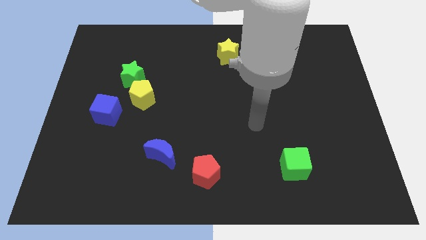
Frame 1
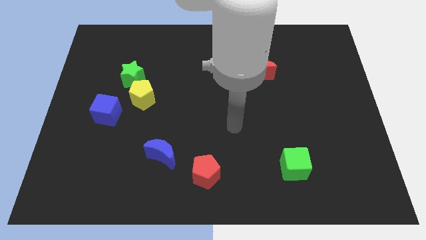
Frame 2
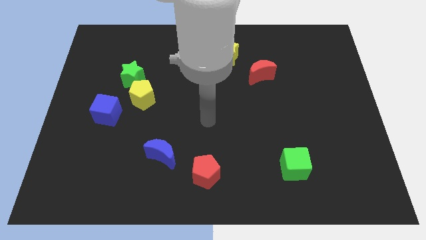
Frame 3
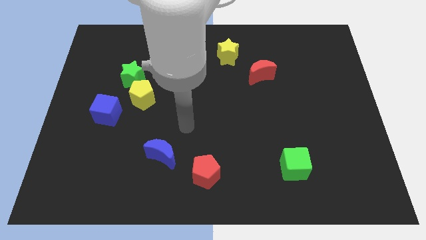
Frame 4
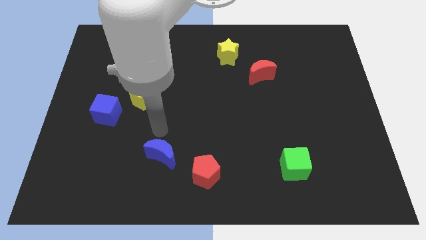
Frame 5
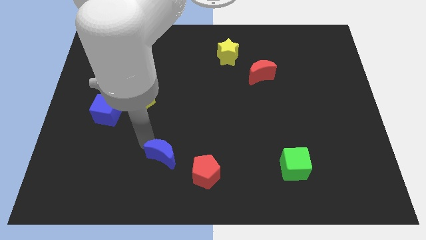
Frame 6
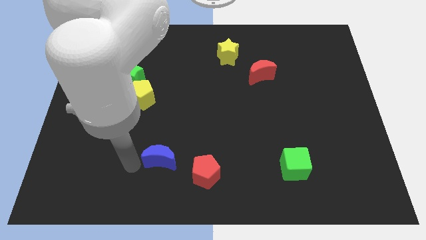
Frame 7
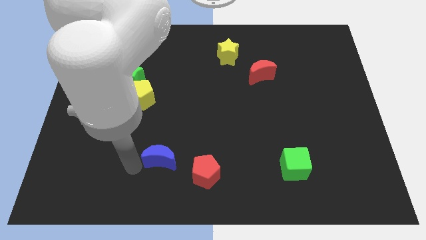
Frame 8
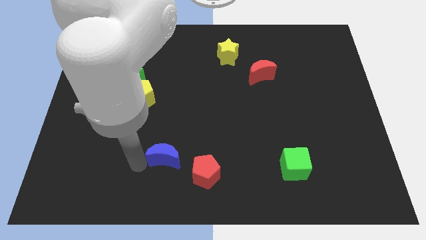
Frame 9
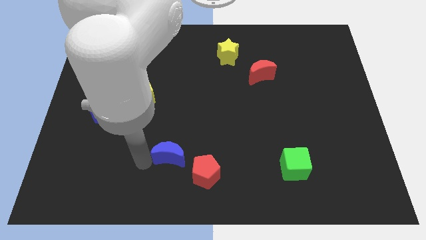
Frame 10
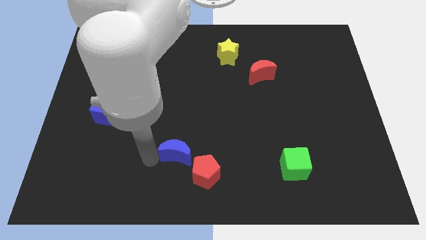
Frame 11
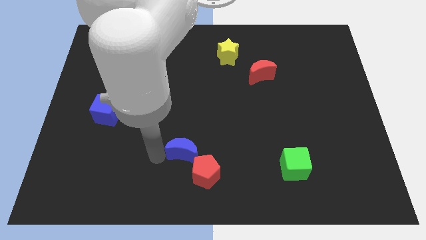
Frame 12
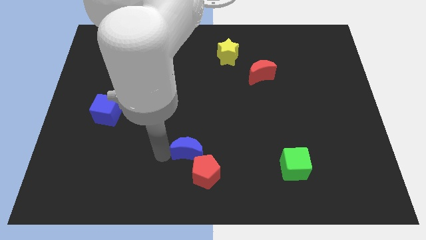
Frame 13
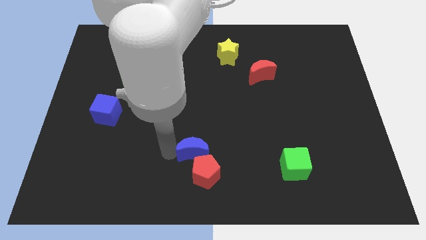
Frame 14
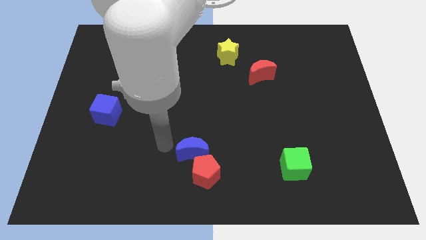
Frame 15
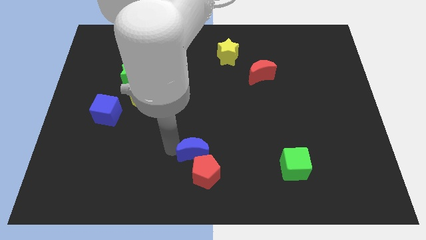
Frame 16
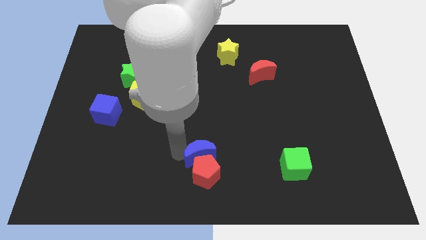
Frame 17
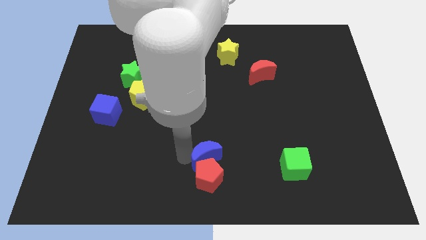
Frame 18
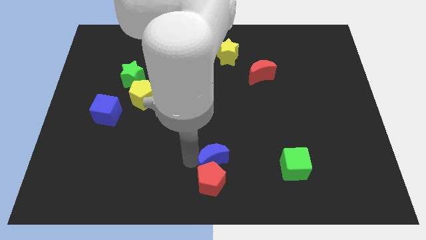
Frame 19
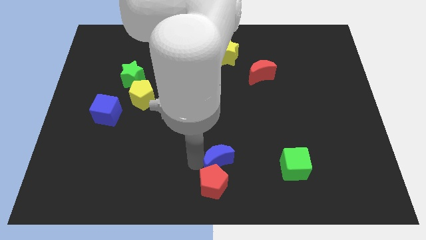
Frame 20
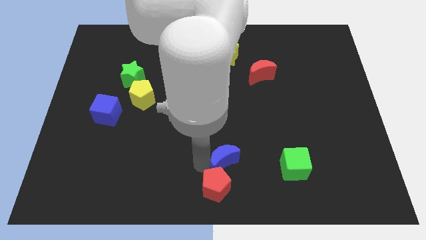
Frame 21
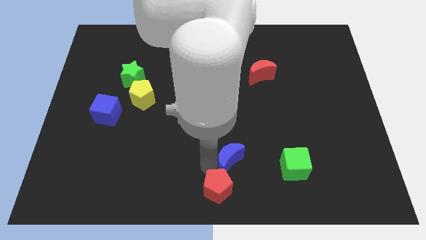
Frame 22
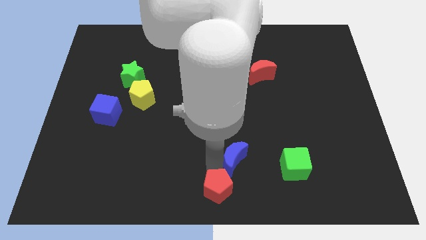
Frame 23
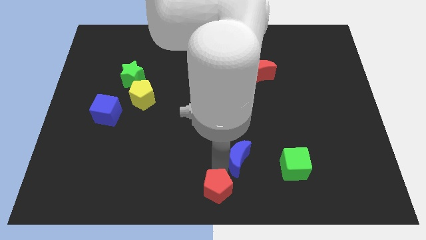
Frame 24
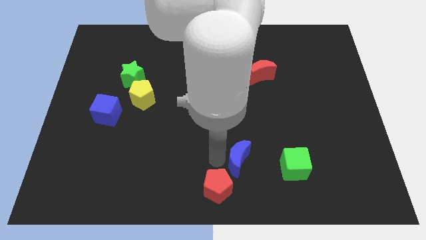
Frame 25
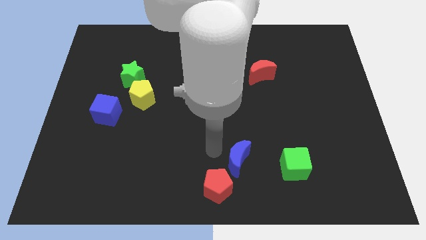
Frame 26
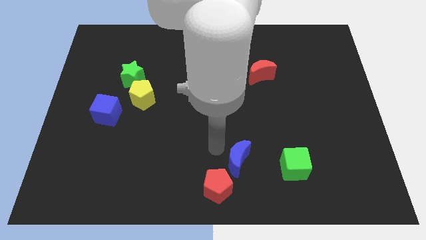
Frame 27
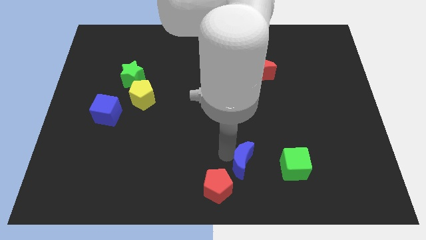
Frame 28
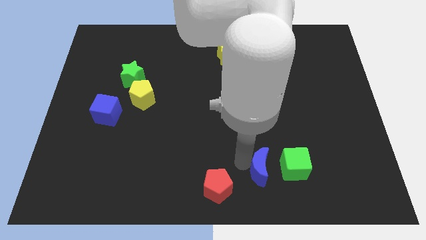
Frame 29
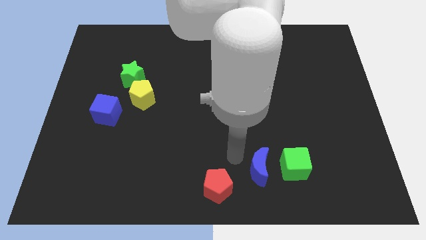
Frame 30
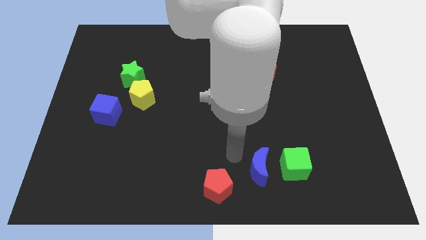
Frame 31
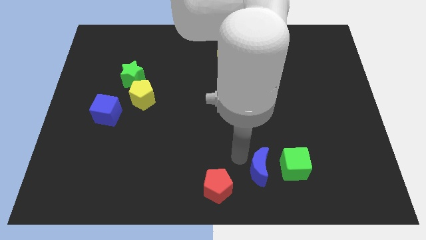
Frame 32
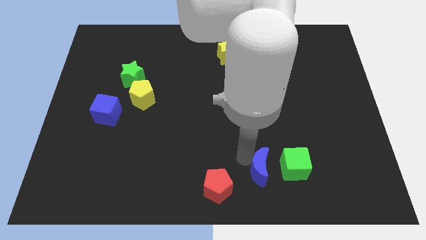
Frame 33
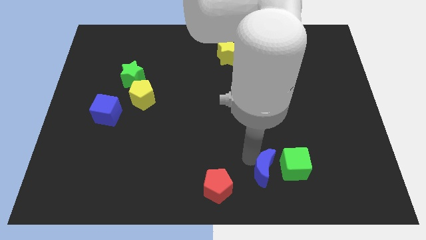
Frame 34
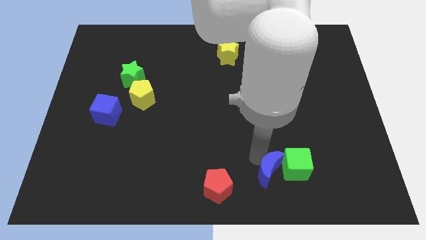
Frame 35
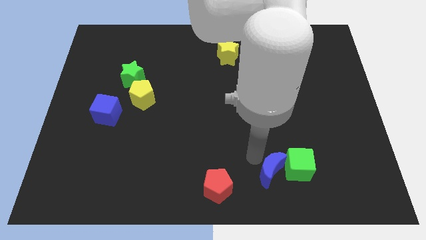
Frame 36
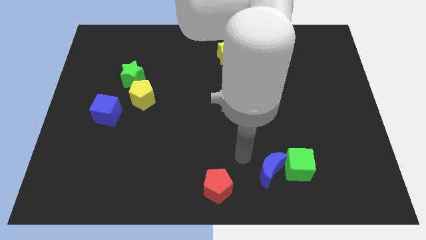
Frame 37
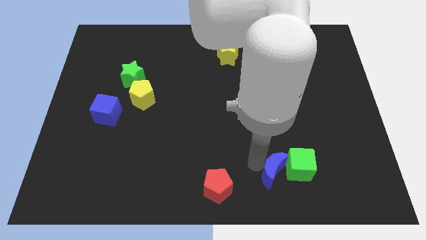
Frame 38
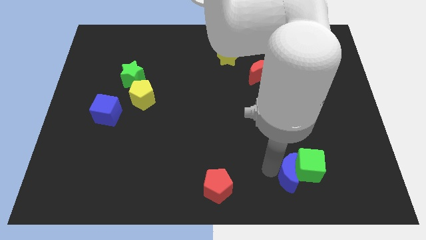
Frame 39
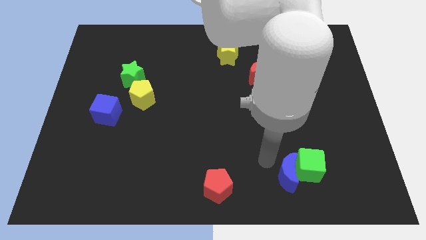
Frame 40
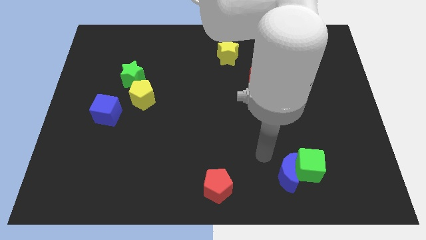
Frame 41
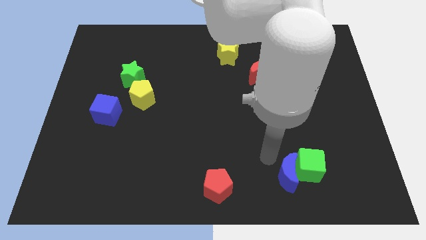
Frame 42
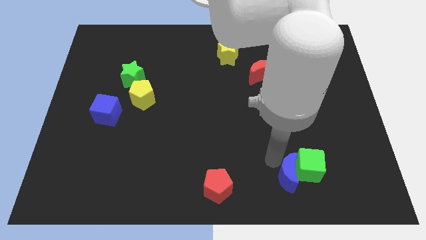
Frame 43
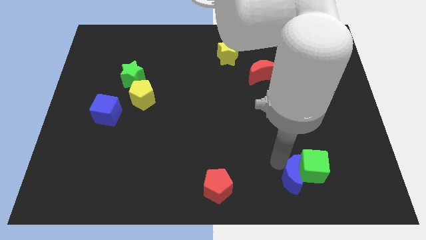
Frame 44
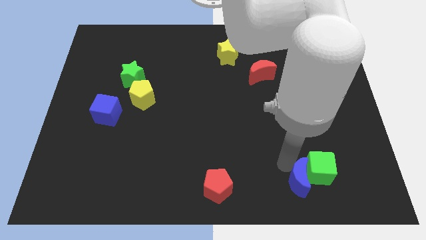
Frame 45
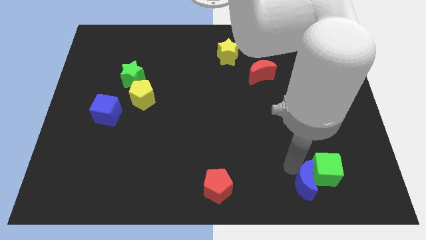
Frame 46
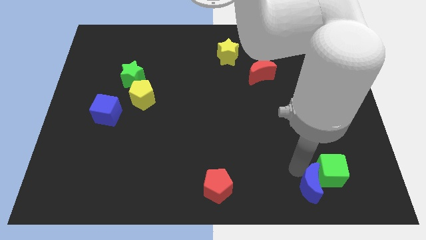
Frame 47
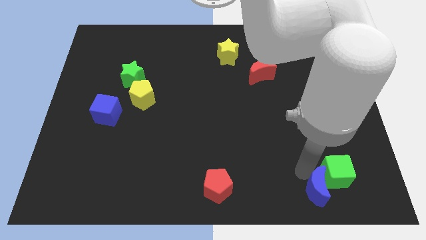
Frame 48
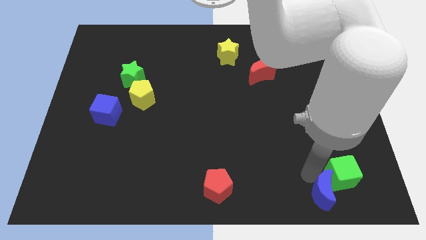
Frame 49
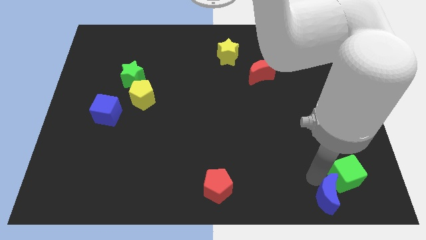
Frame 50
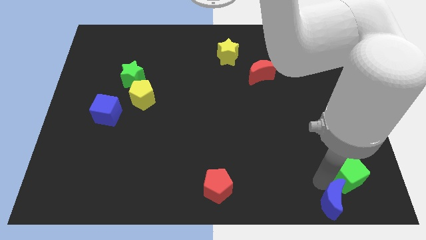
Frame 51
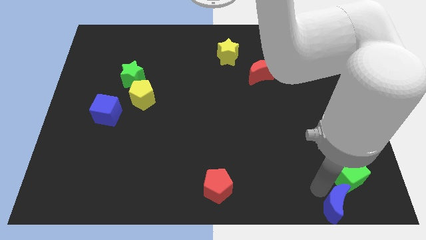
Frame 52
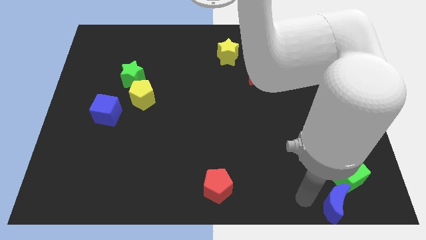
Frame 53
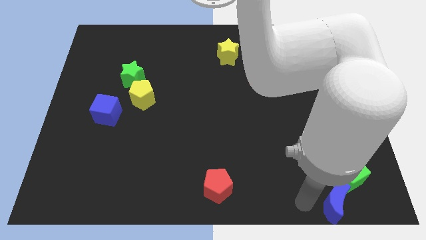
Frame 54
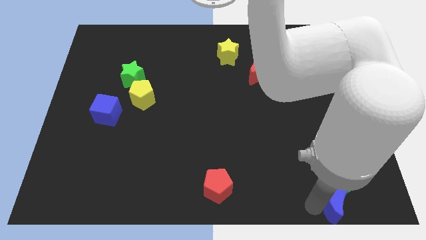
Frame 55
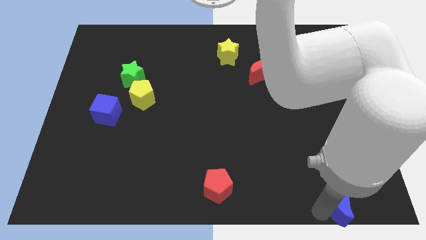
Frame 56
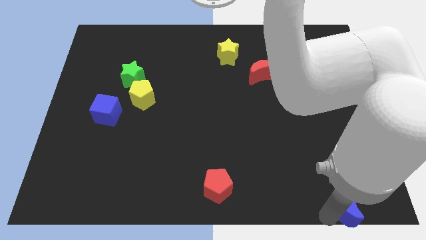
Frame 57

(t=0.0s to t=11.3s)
push the blue moon to the bottom right

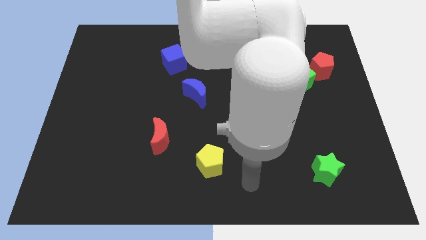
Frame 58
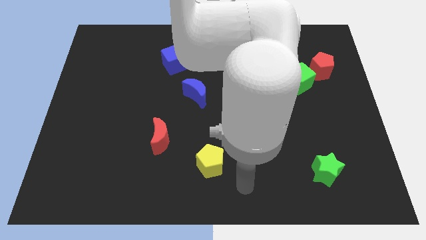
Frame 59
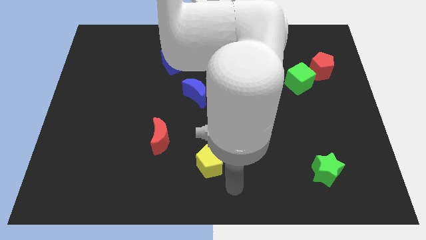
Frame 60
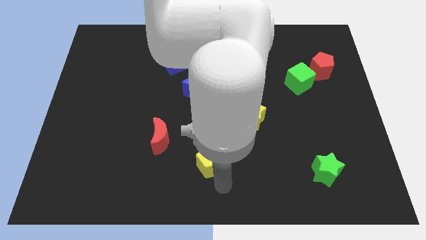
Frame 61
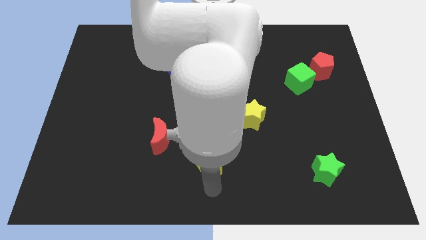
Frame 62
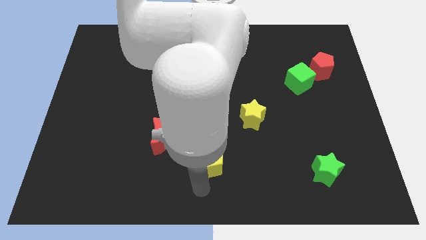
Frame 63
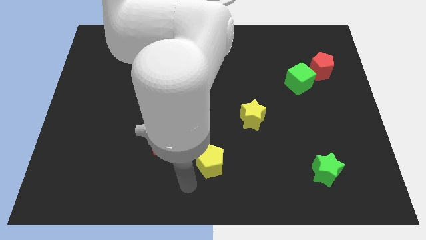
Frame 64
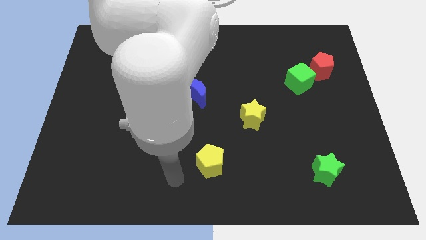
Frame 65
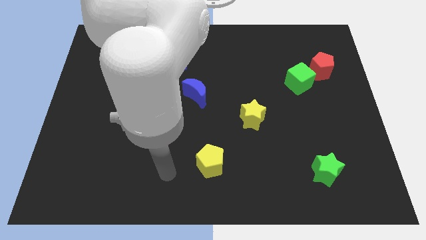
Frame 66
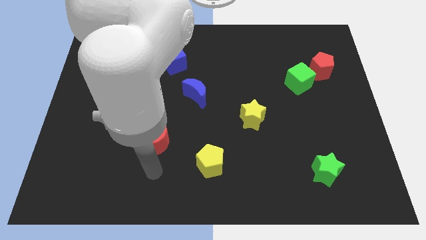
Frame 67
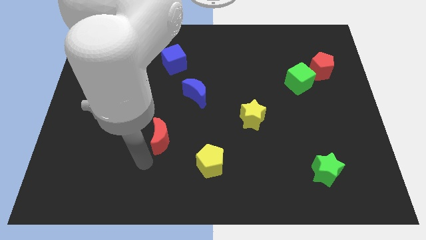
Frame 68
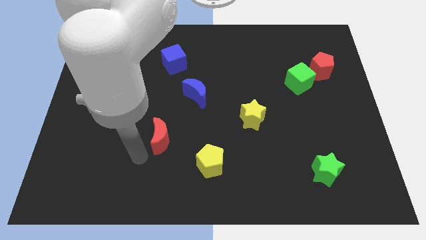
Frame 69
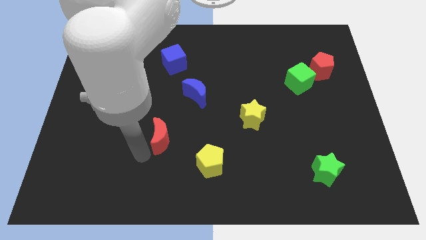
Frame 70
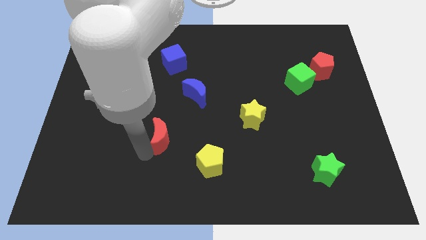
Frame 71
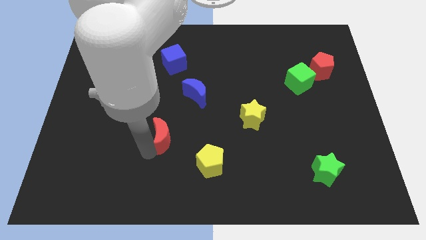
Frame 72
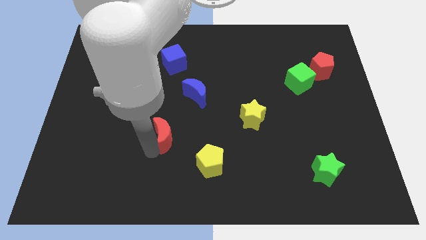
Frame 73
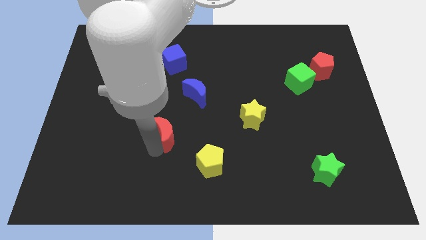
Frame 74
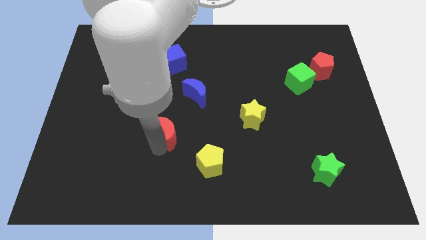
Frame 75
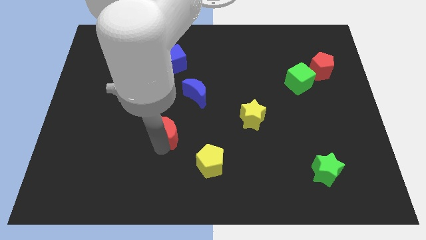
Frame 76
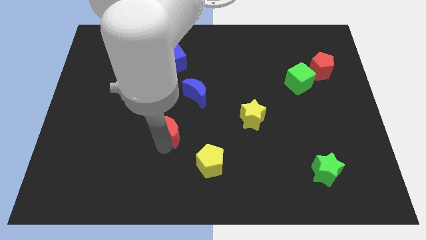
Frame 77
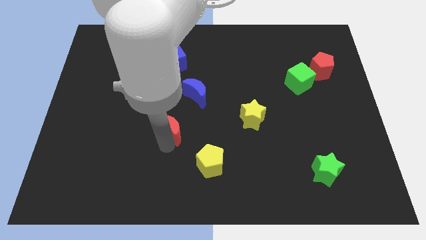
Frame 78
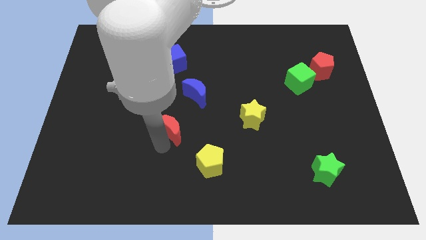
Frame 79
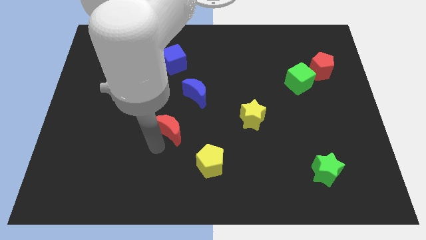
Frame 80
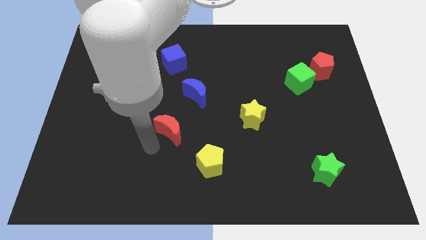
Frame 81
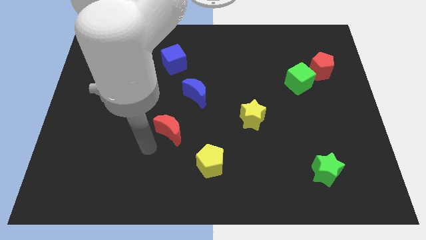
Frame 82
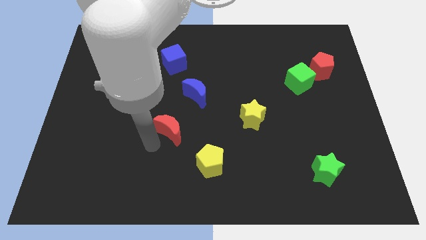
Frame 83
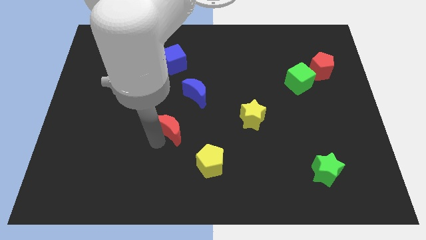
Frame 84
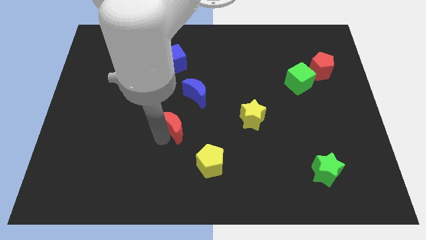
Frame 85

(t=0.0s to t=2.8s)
move the red moon to the middle of the board

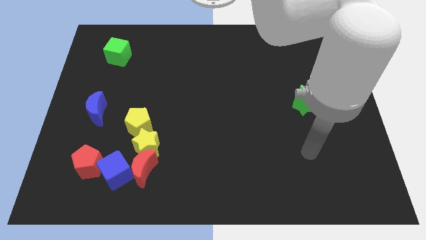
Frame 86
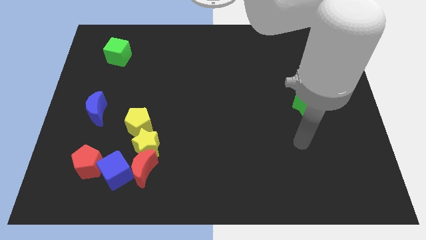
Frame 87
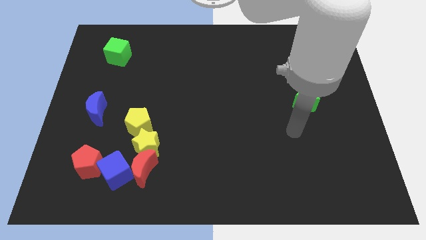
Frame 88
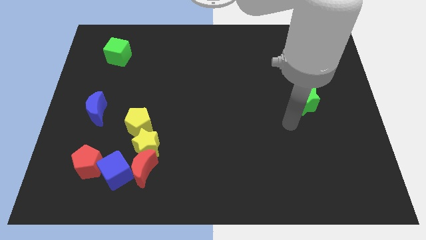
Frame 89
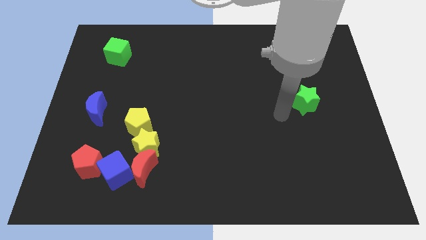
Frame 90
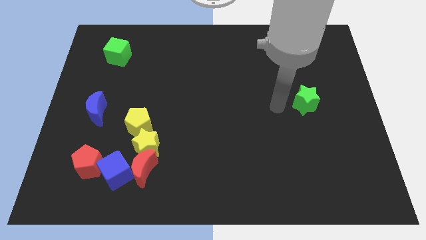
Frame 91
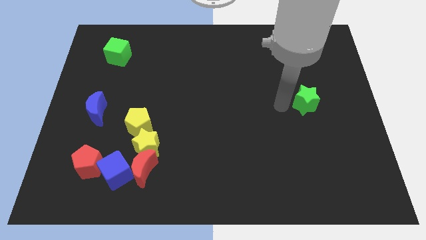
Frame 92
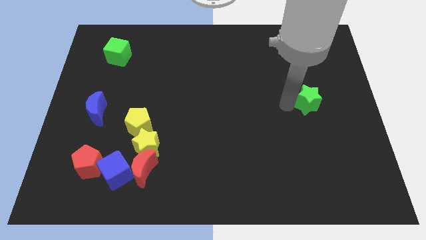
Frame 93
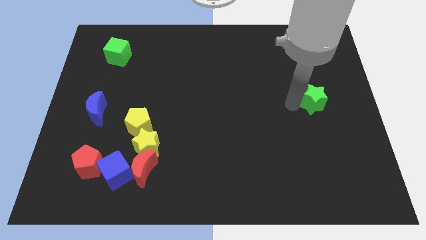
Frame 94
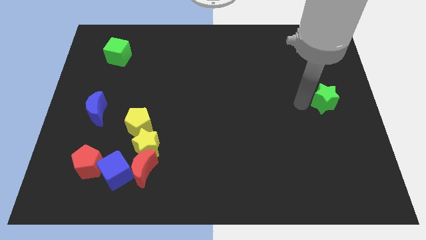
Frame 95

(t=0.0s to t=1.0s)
slide the green star to the right side of the board
